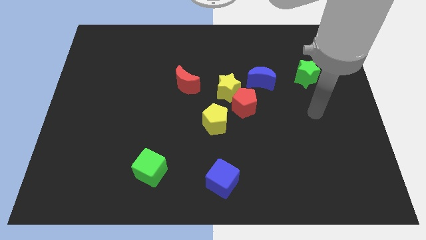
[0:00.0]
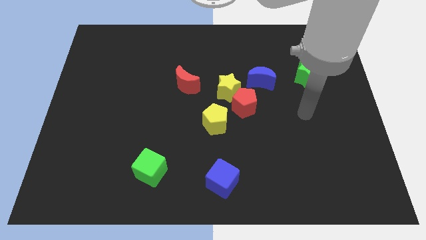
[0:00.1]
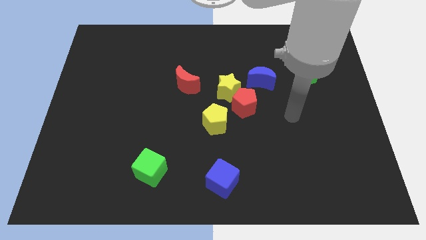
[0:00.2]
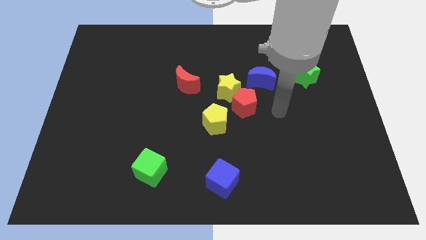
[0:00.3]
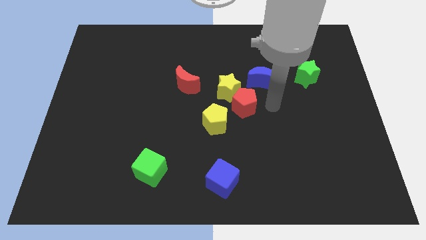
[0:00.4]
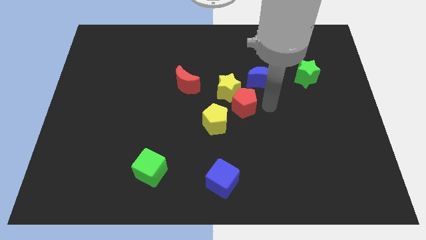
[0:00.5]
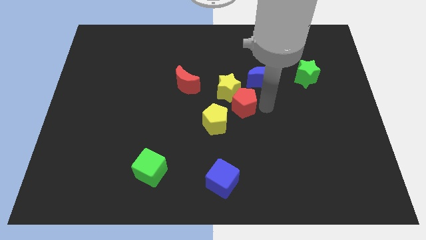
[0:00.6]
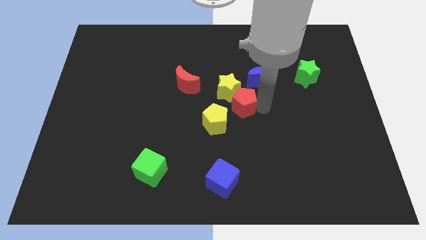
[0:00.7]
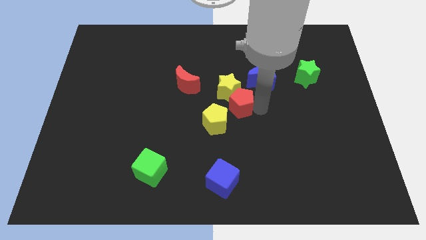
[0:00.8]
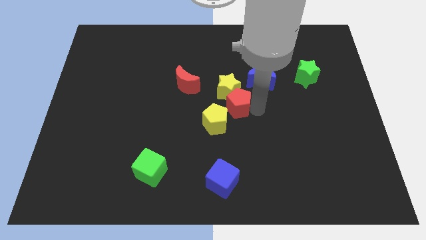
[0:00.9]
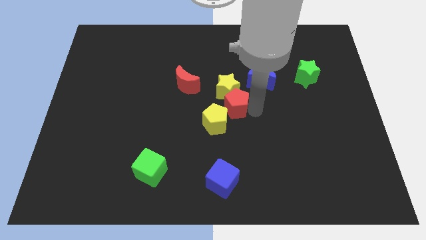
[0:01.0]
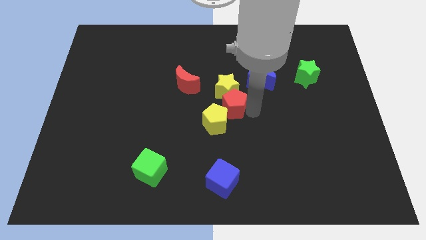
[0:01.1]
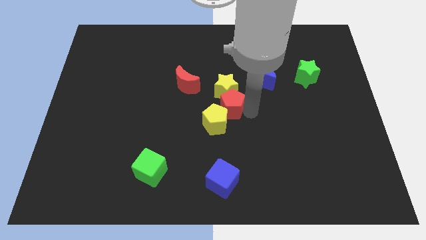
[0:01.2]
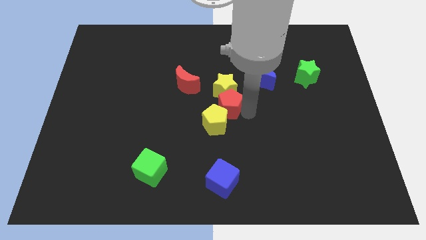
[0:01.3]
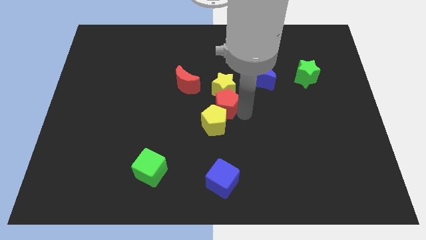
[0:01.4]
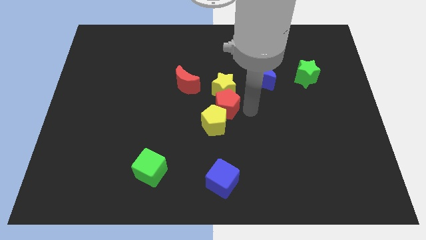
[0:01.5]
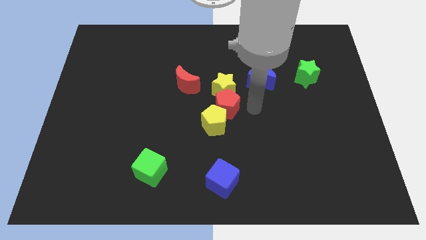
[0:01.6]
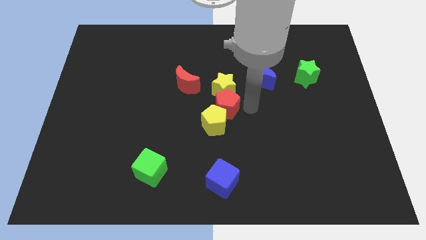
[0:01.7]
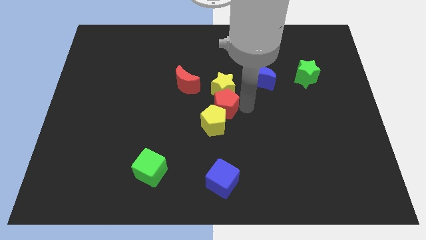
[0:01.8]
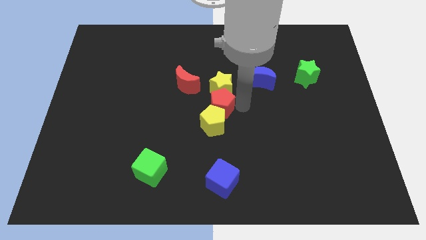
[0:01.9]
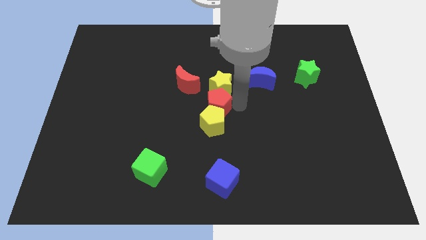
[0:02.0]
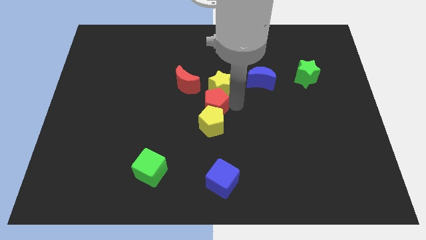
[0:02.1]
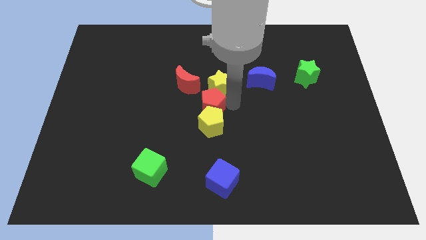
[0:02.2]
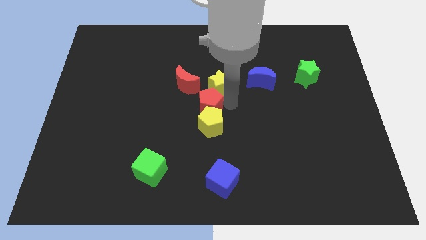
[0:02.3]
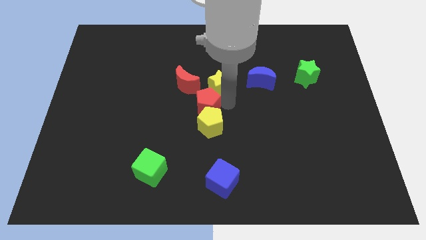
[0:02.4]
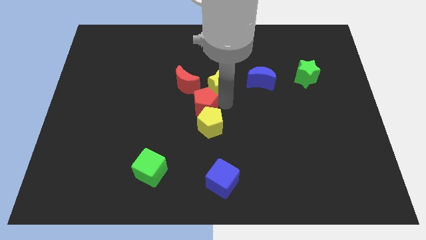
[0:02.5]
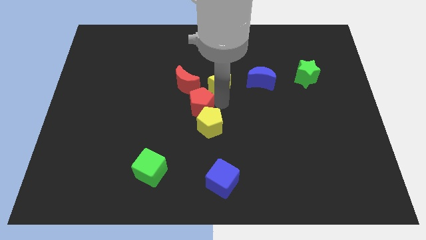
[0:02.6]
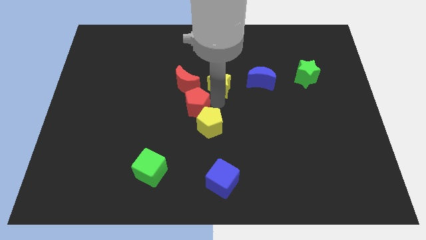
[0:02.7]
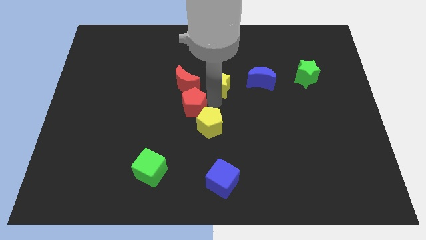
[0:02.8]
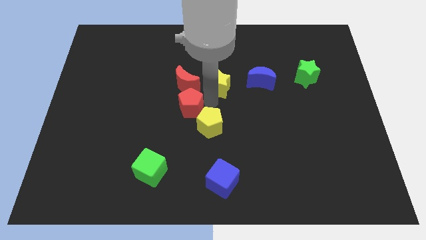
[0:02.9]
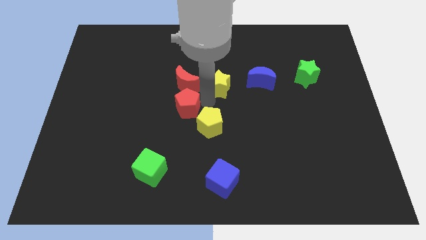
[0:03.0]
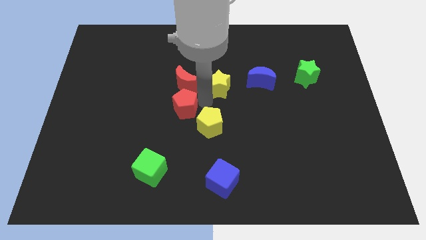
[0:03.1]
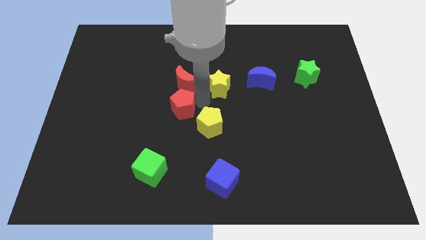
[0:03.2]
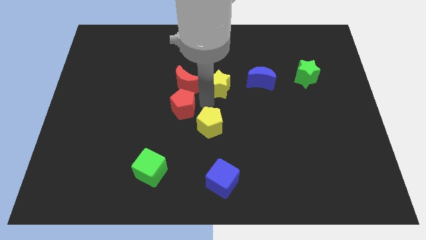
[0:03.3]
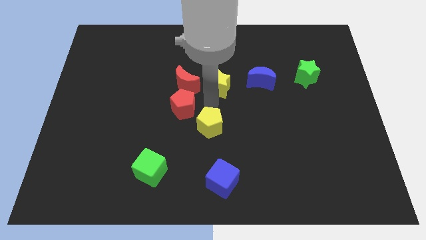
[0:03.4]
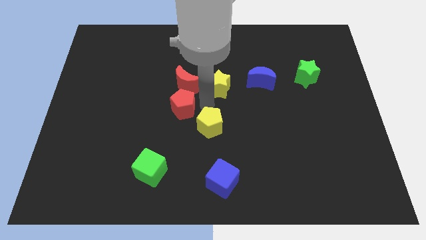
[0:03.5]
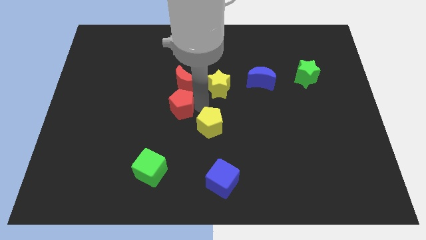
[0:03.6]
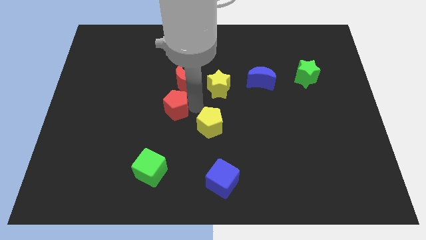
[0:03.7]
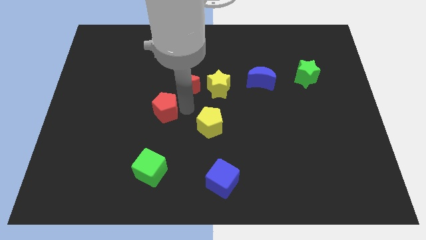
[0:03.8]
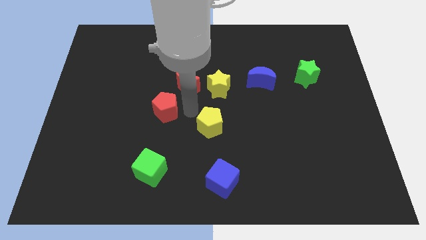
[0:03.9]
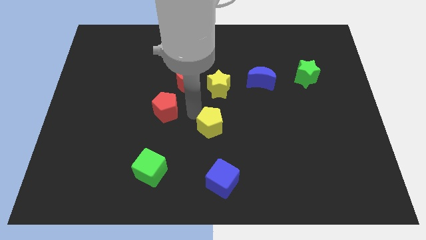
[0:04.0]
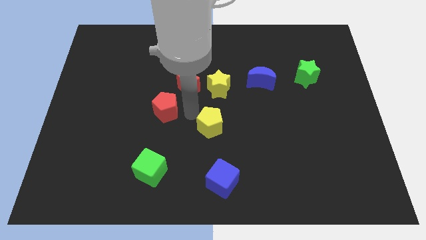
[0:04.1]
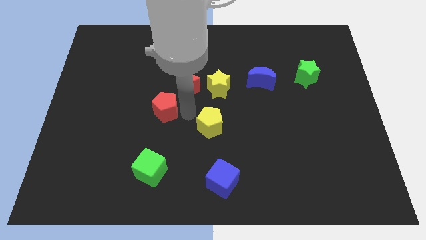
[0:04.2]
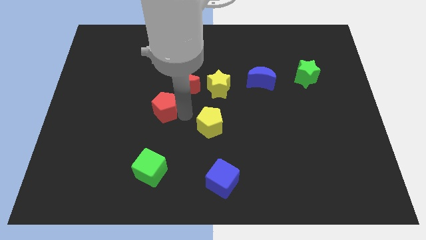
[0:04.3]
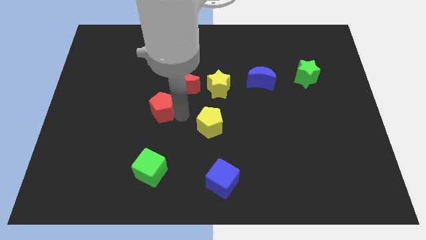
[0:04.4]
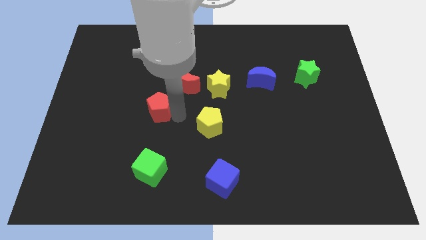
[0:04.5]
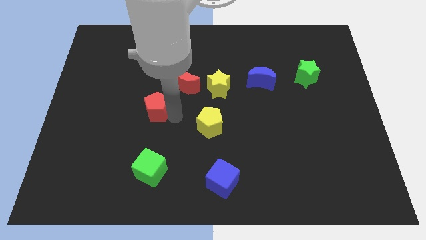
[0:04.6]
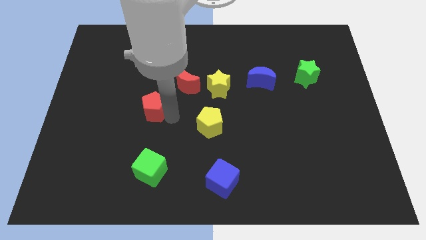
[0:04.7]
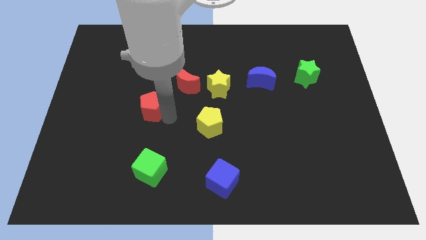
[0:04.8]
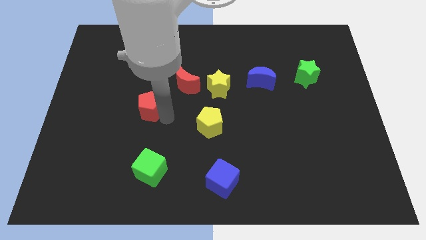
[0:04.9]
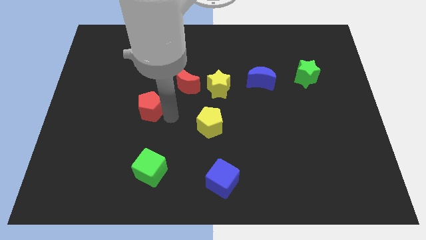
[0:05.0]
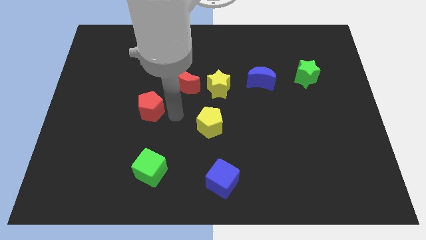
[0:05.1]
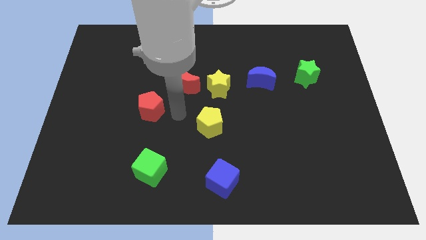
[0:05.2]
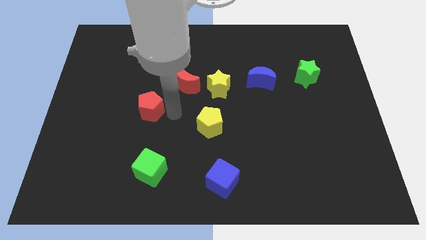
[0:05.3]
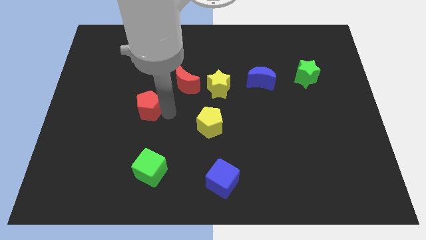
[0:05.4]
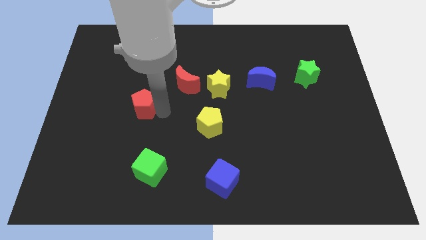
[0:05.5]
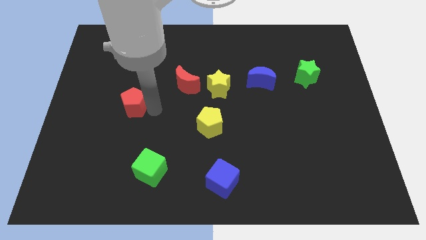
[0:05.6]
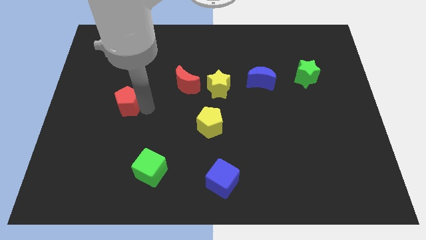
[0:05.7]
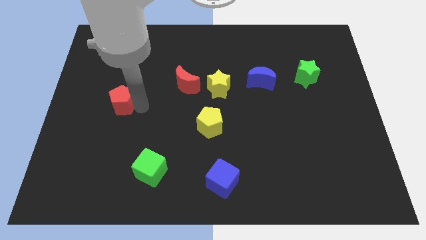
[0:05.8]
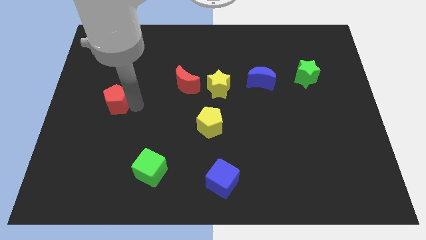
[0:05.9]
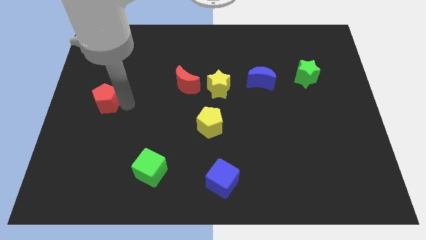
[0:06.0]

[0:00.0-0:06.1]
put the red pentagon to the center left
